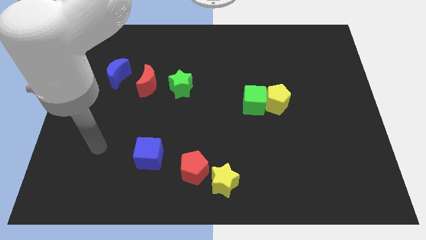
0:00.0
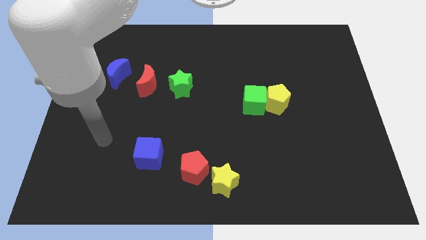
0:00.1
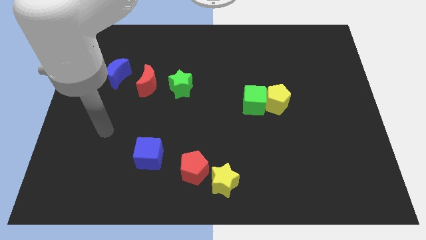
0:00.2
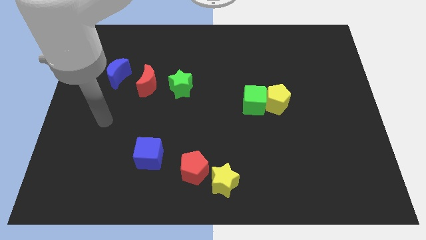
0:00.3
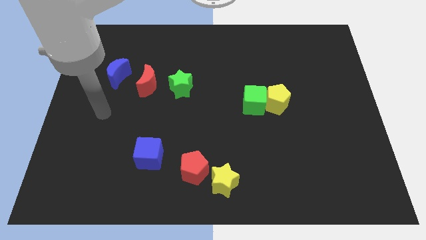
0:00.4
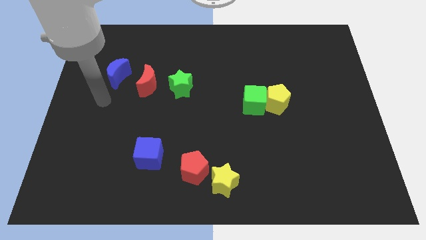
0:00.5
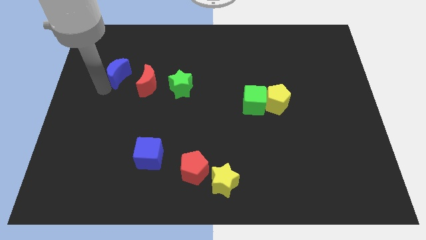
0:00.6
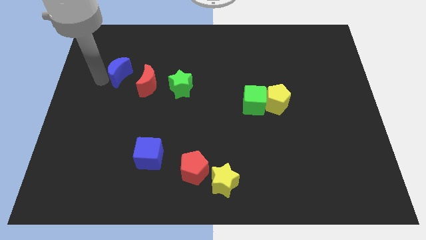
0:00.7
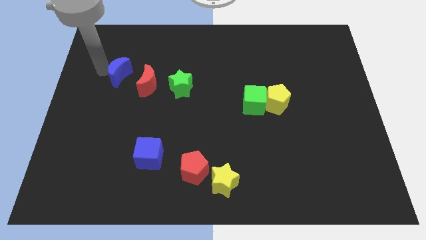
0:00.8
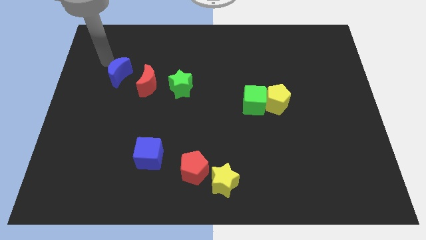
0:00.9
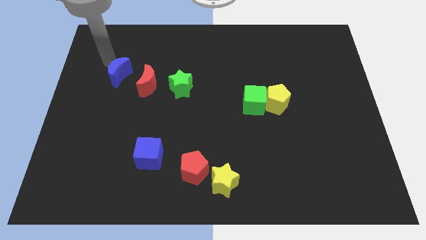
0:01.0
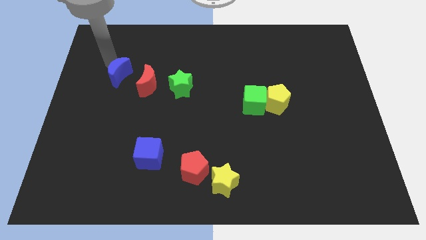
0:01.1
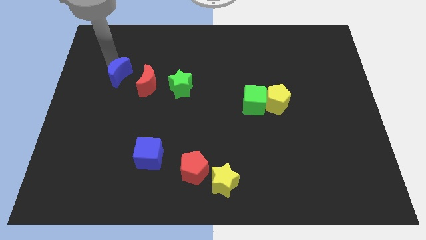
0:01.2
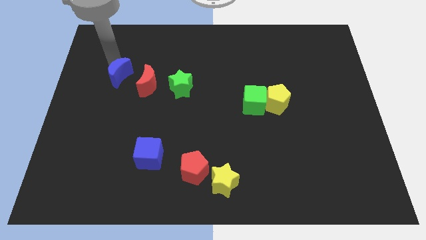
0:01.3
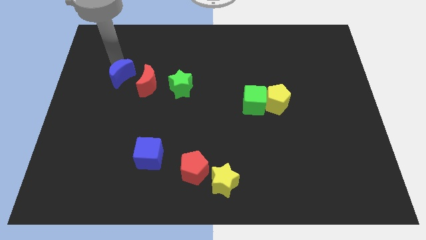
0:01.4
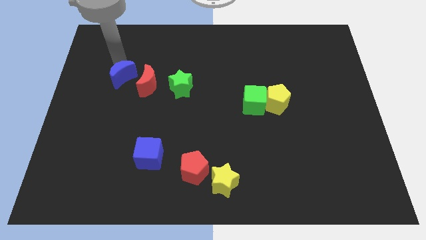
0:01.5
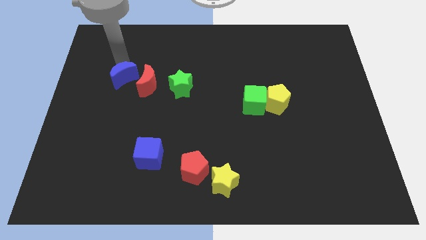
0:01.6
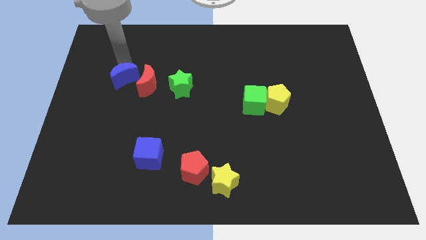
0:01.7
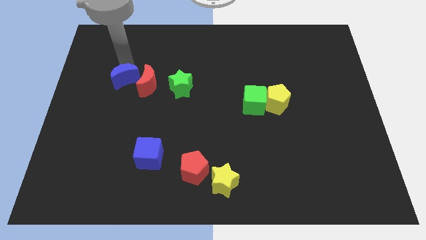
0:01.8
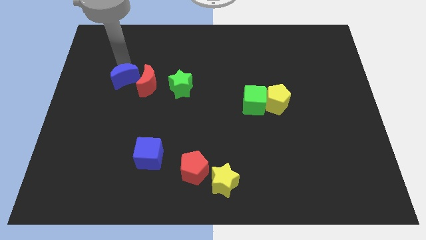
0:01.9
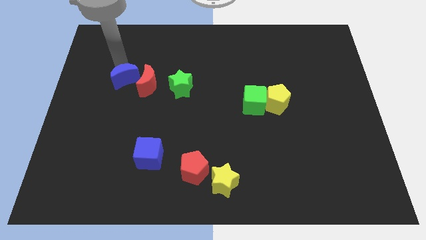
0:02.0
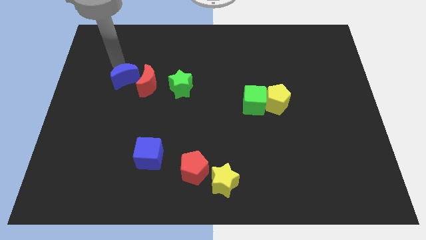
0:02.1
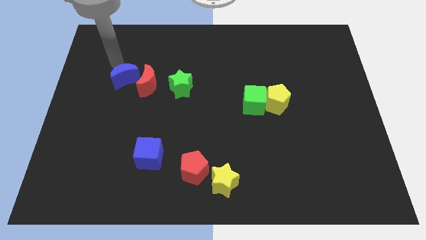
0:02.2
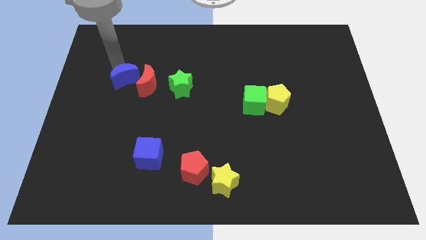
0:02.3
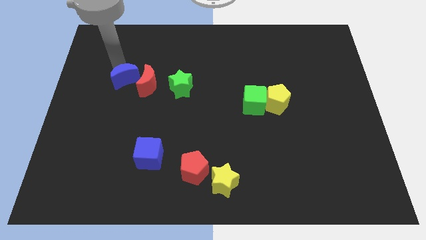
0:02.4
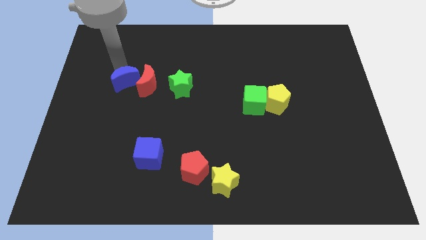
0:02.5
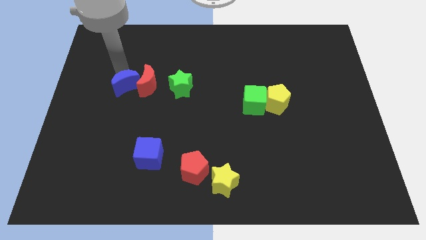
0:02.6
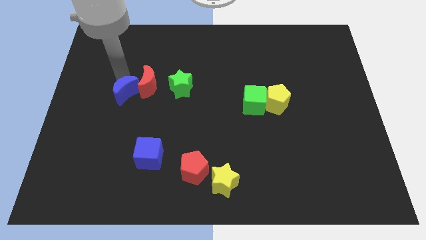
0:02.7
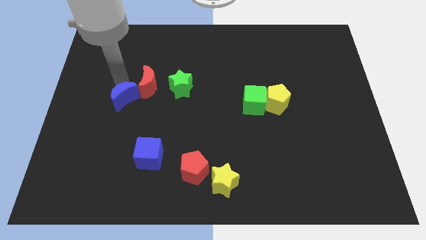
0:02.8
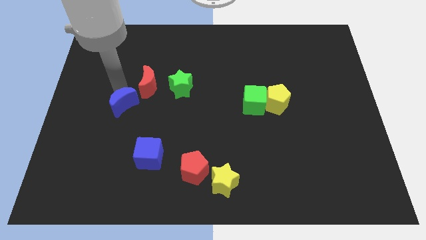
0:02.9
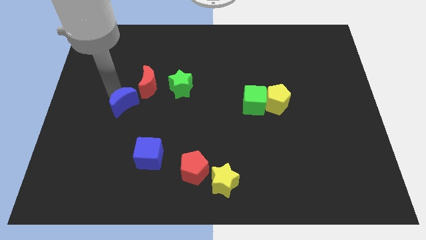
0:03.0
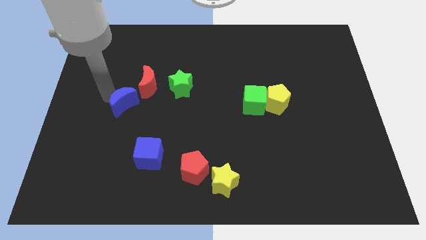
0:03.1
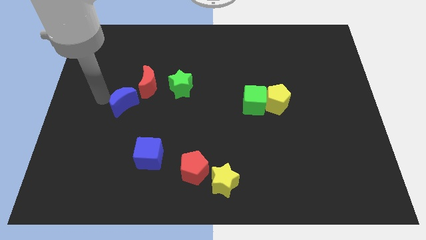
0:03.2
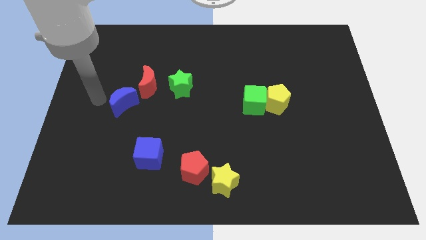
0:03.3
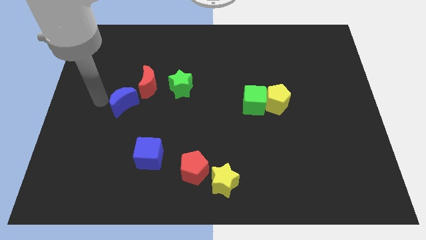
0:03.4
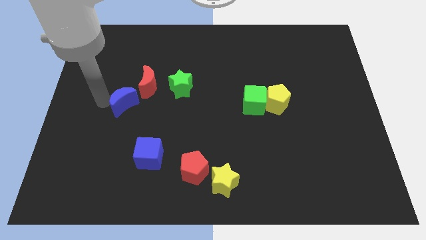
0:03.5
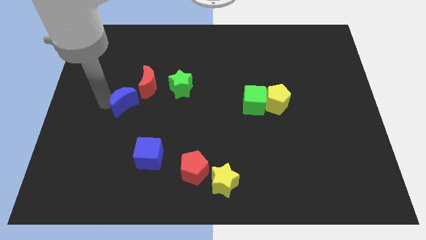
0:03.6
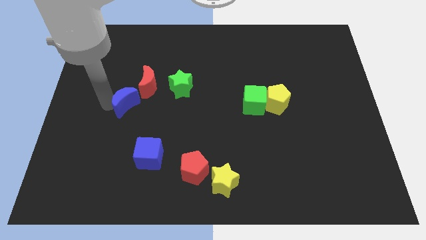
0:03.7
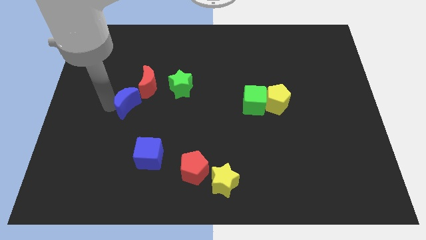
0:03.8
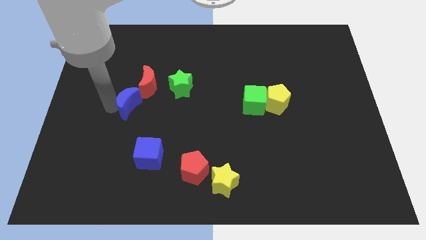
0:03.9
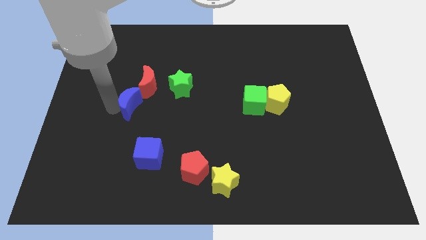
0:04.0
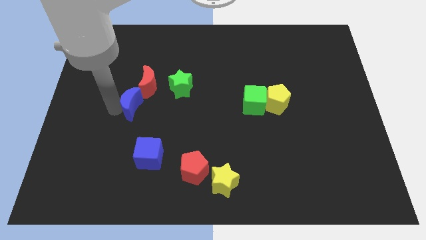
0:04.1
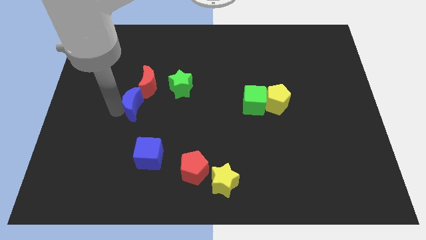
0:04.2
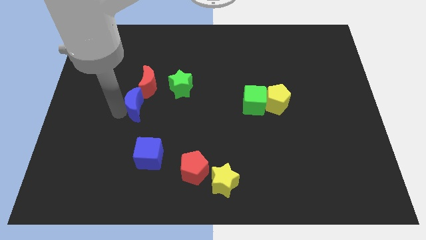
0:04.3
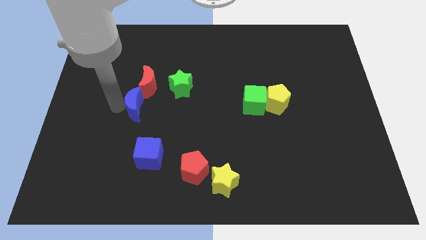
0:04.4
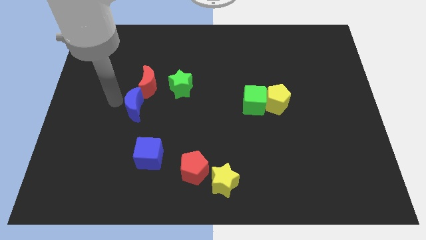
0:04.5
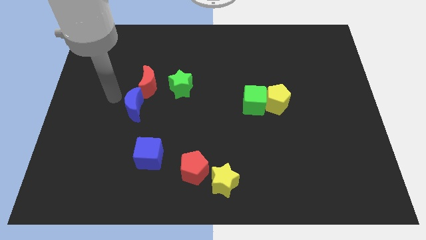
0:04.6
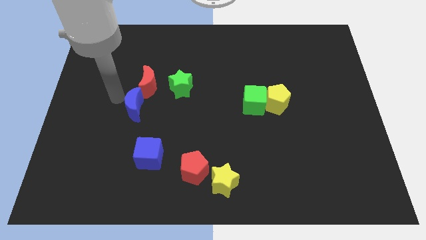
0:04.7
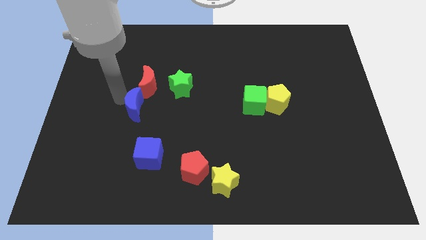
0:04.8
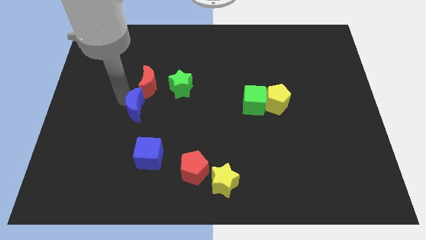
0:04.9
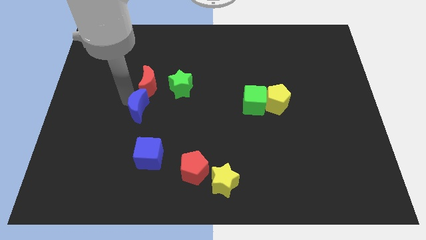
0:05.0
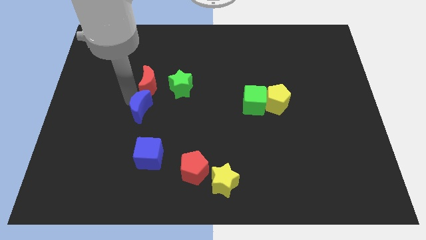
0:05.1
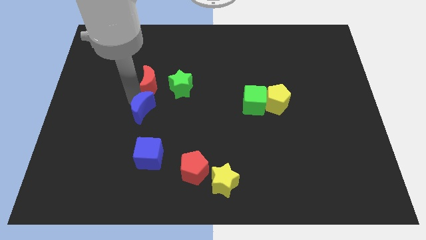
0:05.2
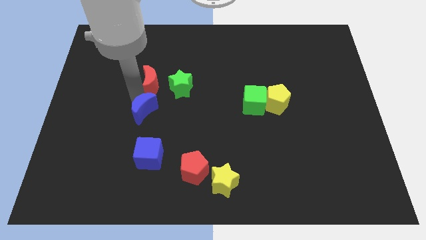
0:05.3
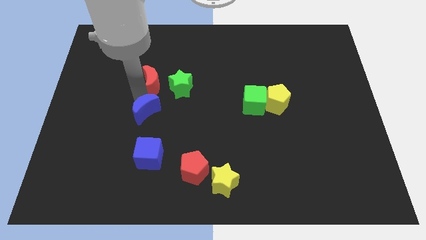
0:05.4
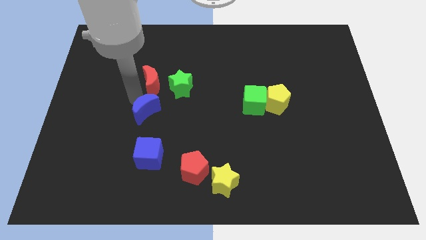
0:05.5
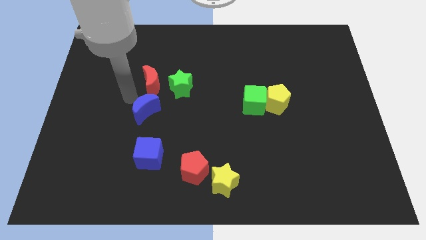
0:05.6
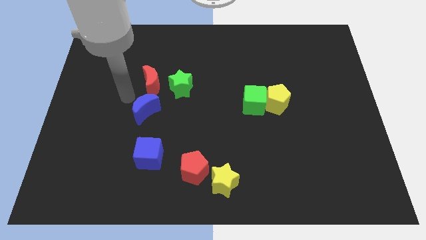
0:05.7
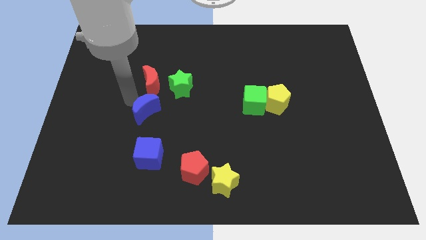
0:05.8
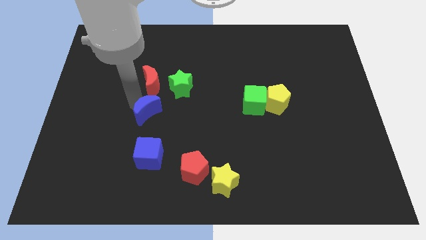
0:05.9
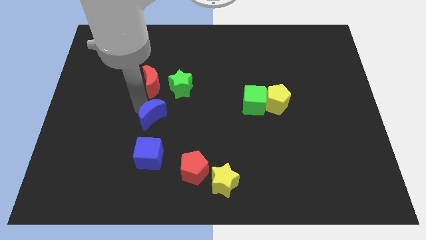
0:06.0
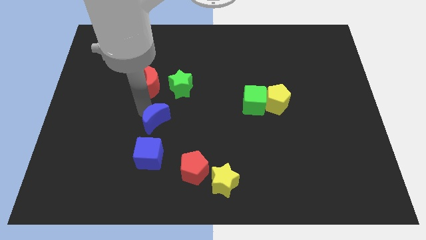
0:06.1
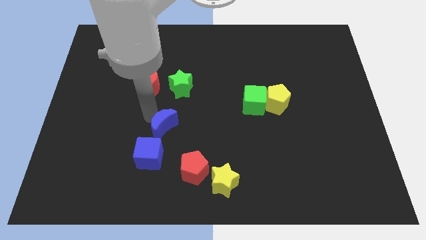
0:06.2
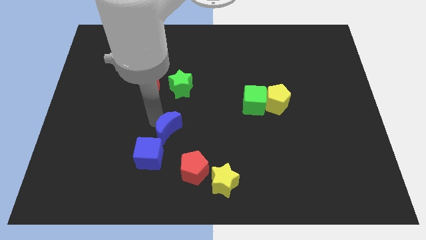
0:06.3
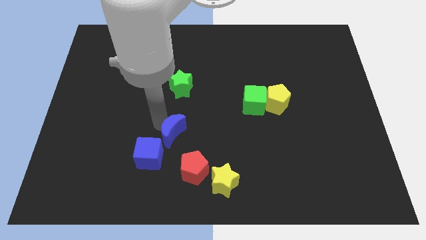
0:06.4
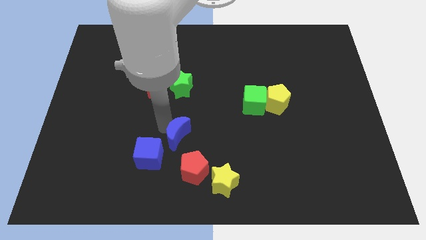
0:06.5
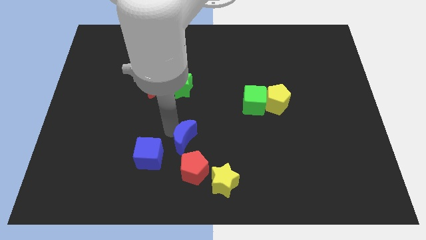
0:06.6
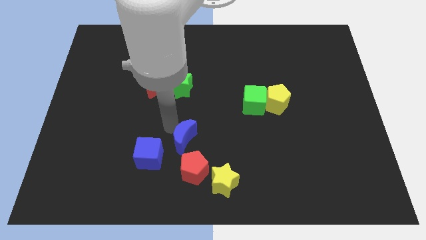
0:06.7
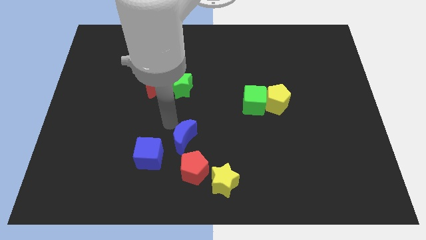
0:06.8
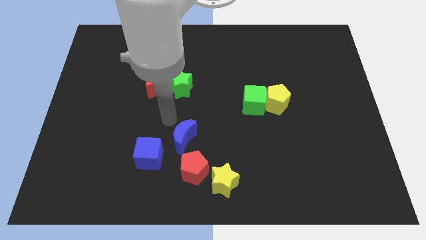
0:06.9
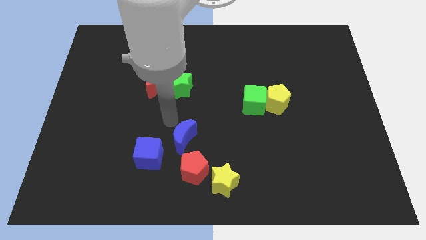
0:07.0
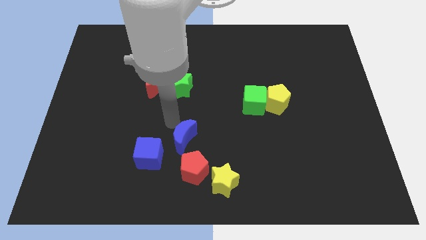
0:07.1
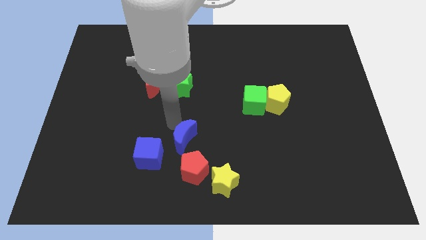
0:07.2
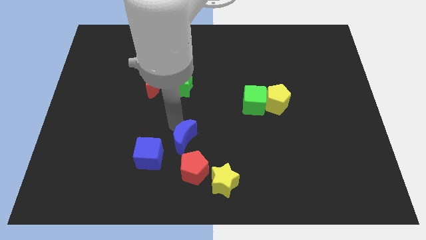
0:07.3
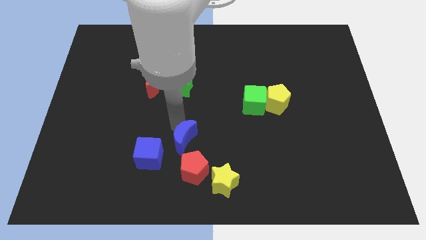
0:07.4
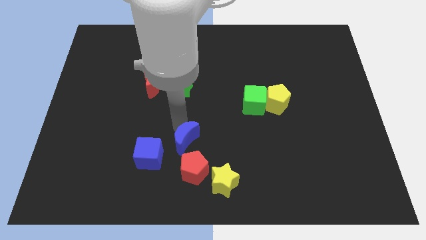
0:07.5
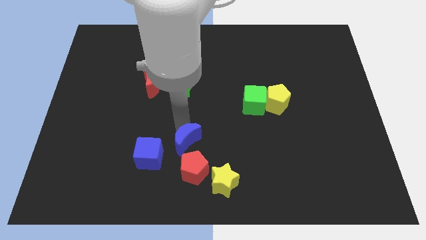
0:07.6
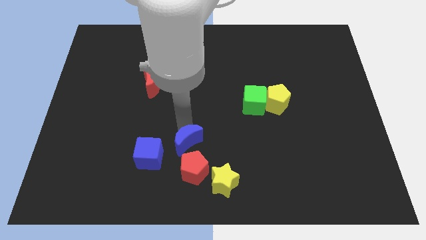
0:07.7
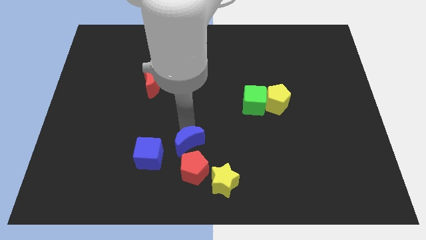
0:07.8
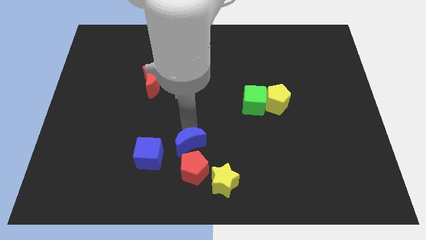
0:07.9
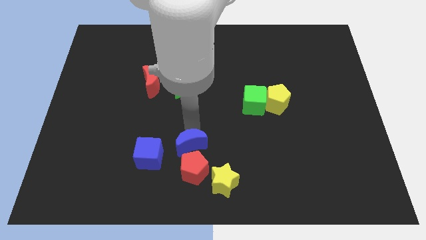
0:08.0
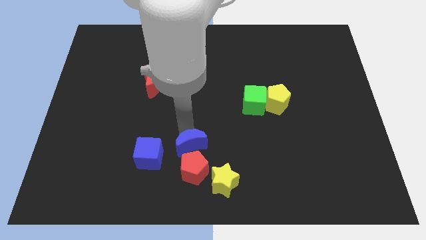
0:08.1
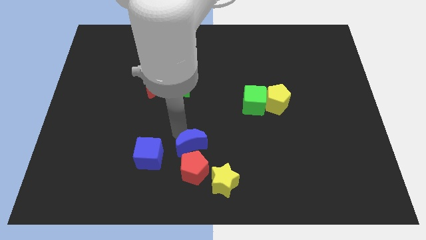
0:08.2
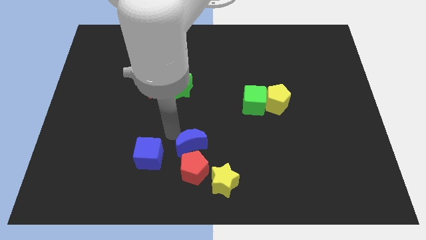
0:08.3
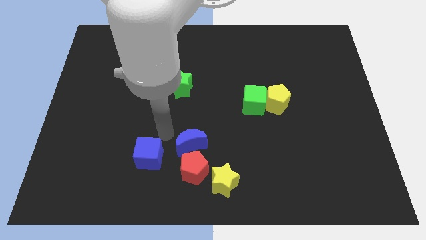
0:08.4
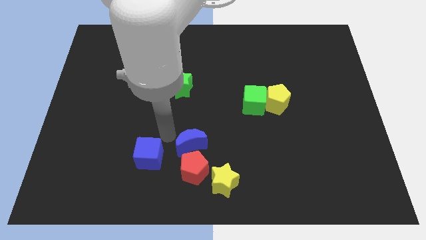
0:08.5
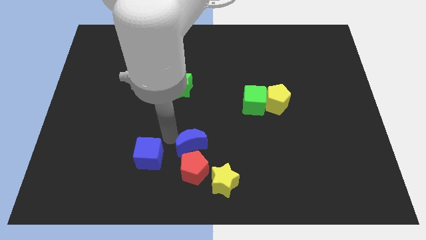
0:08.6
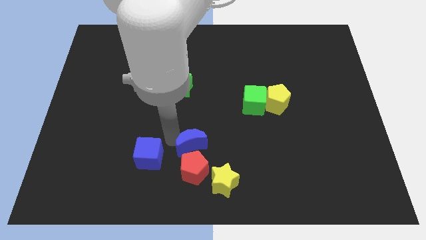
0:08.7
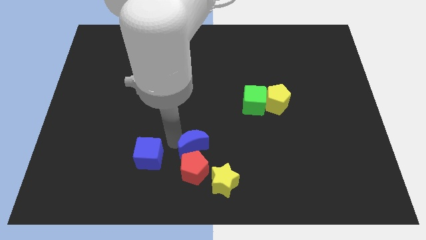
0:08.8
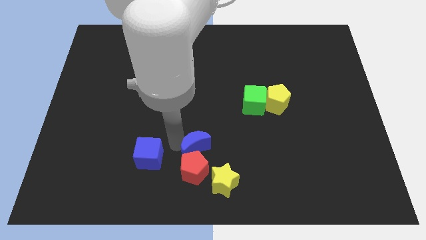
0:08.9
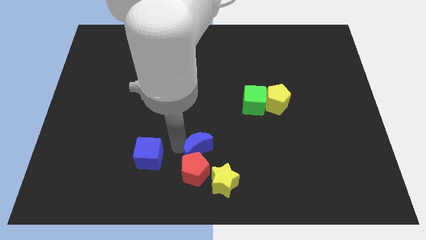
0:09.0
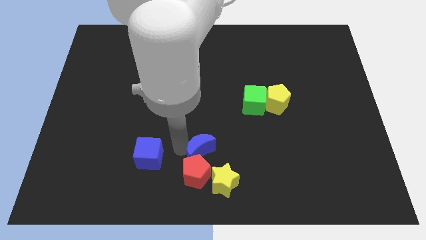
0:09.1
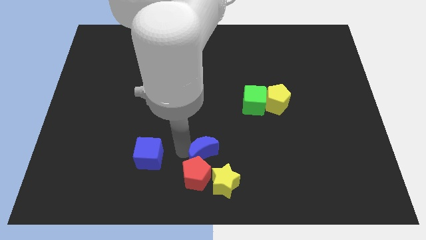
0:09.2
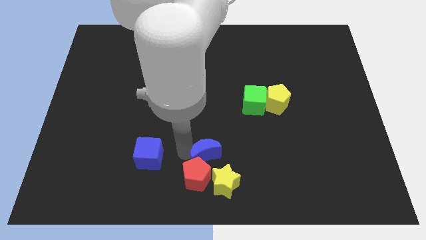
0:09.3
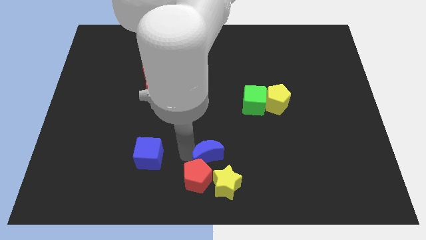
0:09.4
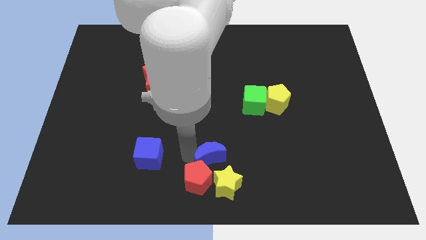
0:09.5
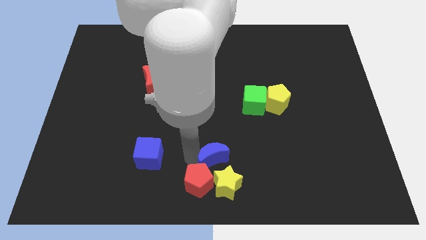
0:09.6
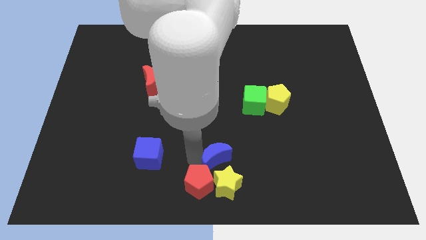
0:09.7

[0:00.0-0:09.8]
put the blue moon to the yellow star
